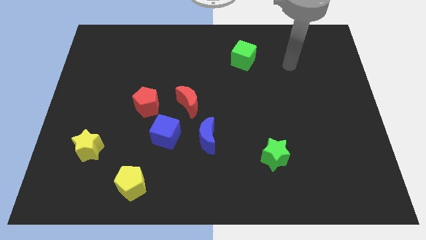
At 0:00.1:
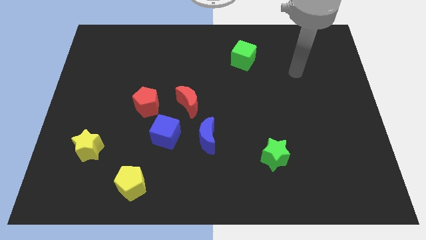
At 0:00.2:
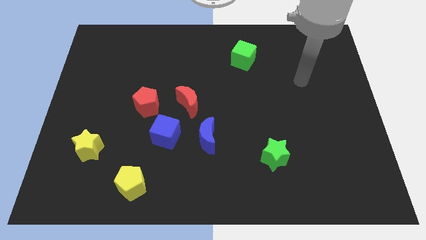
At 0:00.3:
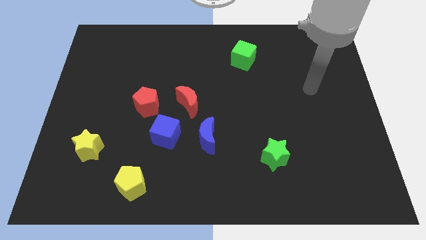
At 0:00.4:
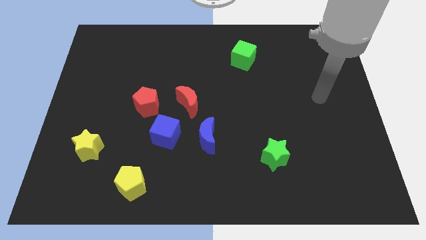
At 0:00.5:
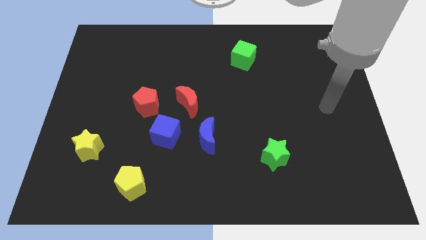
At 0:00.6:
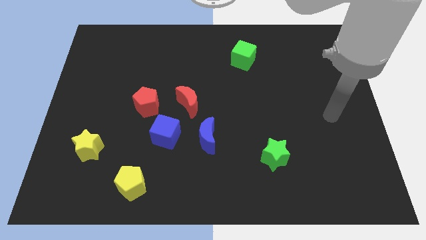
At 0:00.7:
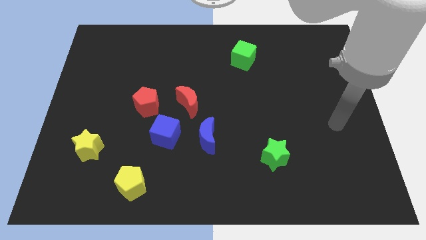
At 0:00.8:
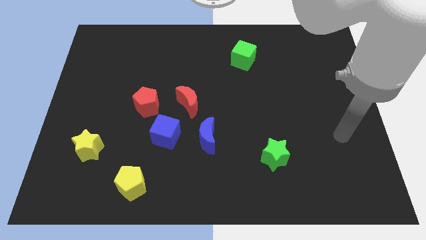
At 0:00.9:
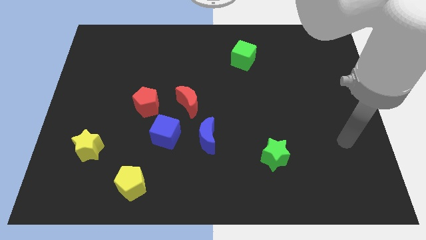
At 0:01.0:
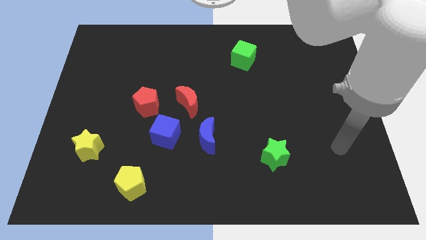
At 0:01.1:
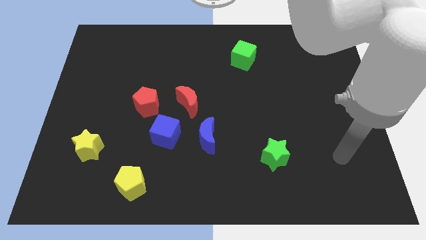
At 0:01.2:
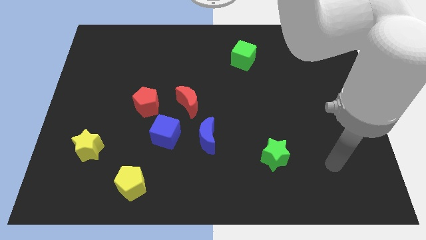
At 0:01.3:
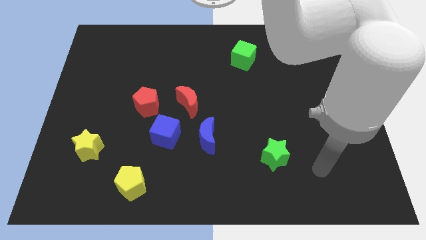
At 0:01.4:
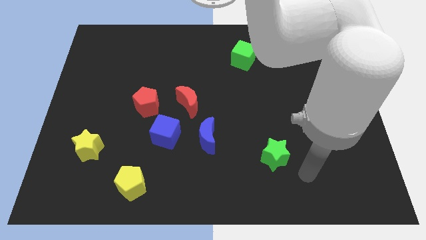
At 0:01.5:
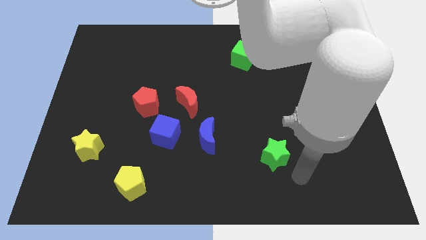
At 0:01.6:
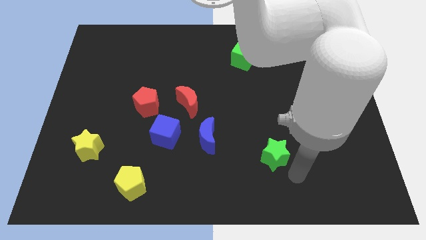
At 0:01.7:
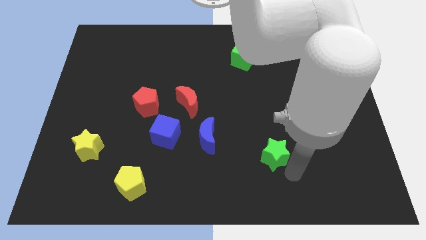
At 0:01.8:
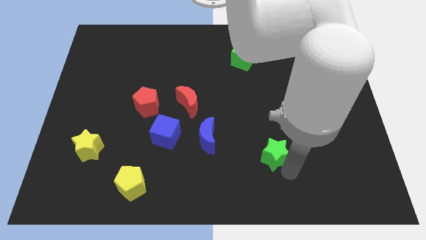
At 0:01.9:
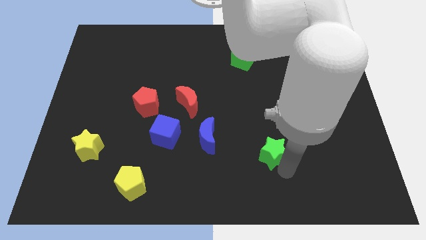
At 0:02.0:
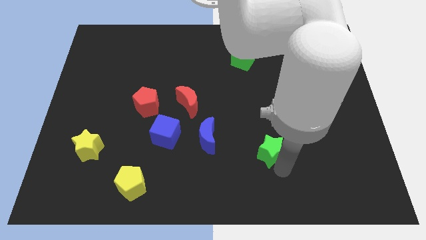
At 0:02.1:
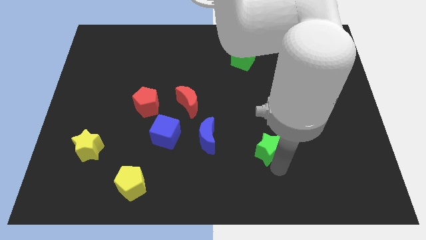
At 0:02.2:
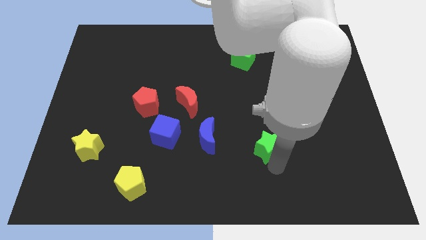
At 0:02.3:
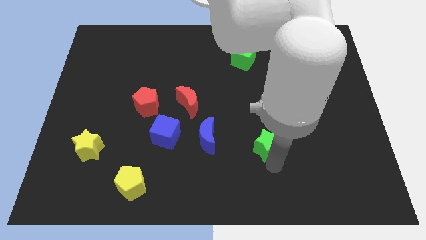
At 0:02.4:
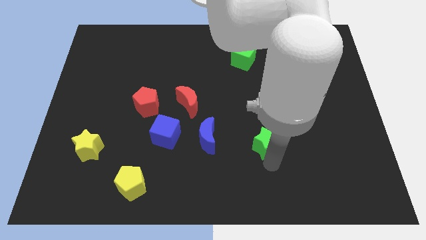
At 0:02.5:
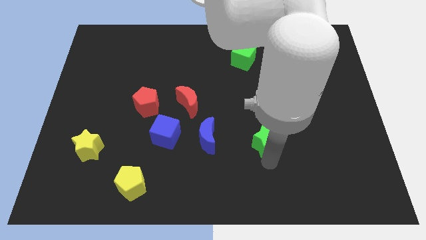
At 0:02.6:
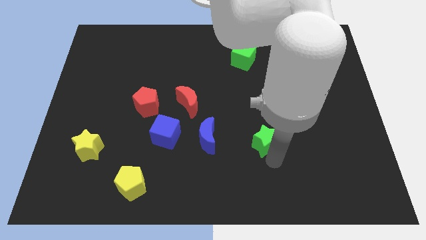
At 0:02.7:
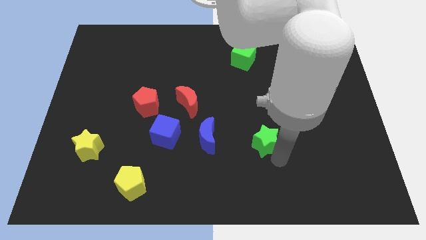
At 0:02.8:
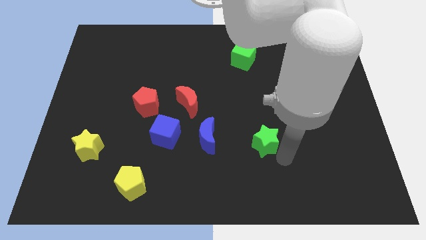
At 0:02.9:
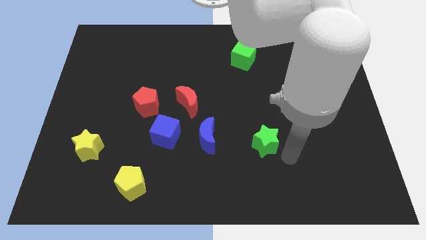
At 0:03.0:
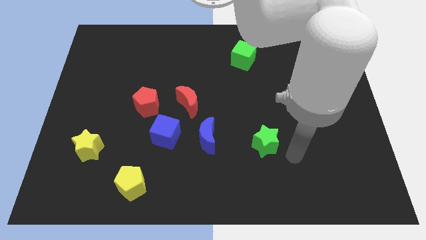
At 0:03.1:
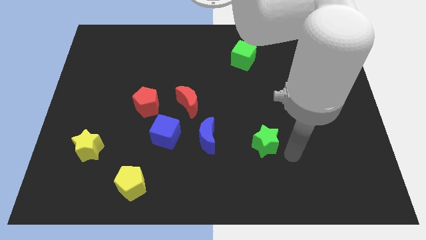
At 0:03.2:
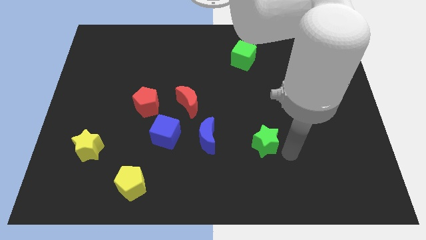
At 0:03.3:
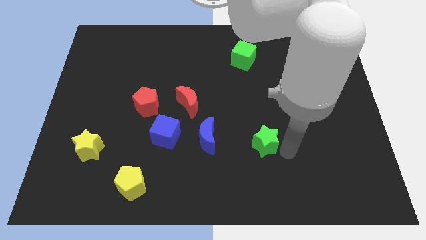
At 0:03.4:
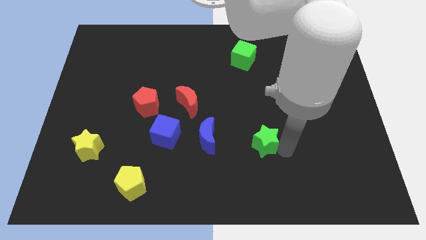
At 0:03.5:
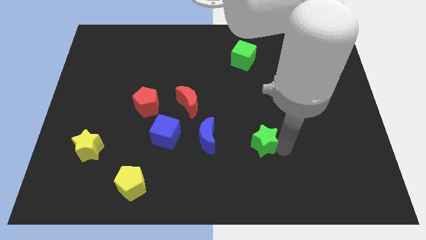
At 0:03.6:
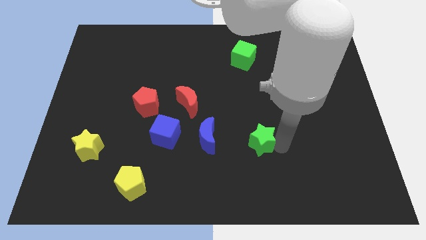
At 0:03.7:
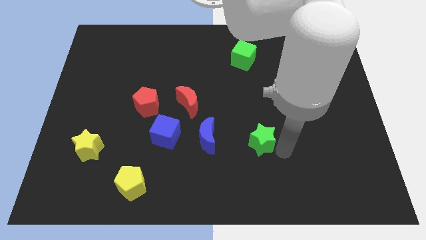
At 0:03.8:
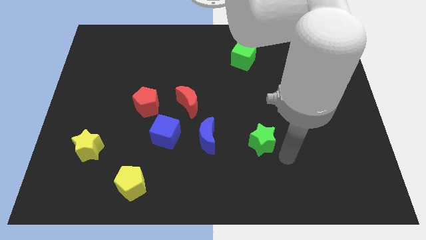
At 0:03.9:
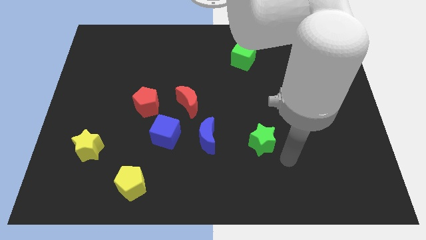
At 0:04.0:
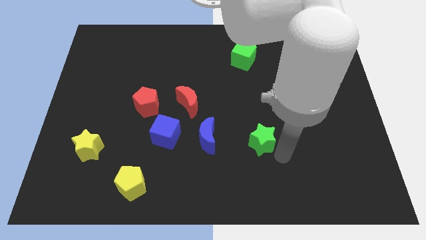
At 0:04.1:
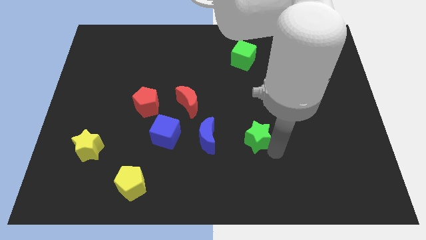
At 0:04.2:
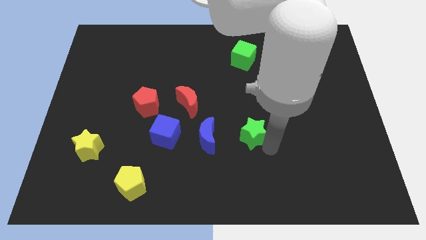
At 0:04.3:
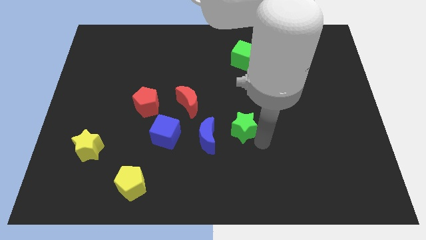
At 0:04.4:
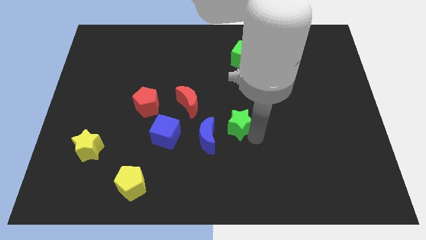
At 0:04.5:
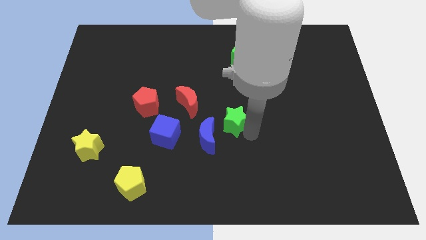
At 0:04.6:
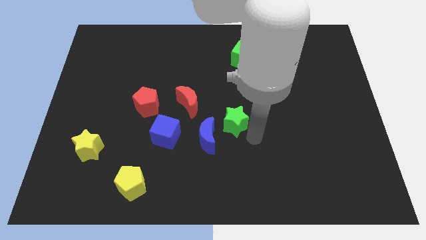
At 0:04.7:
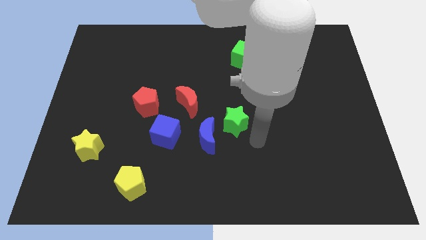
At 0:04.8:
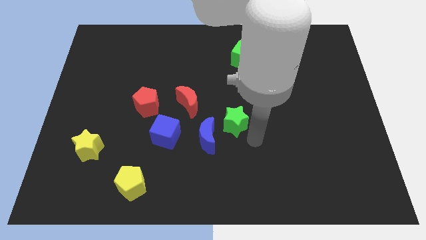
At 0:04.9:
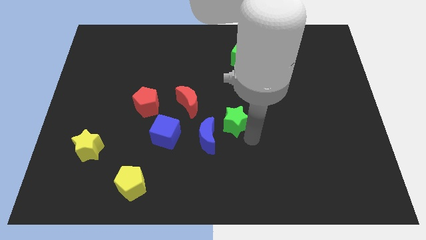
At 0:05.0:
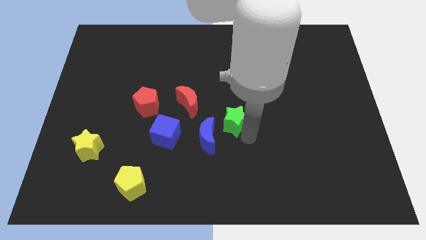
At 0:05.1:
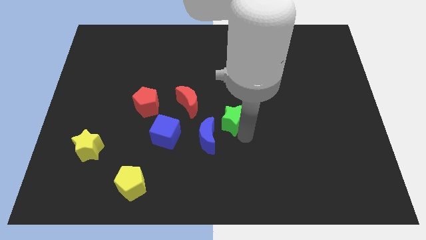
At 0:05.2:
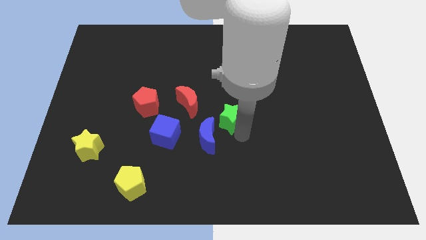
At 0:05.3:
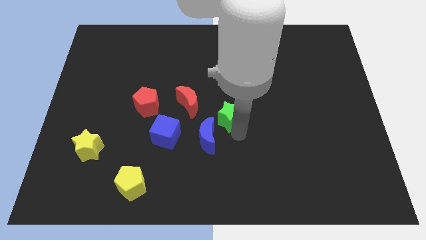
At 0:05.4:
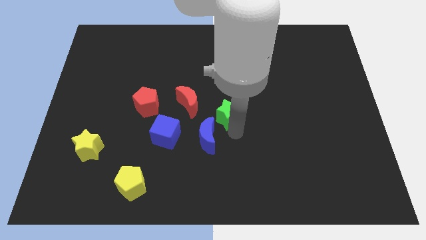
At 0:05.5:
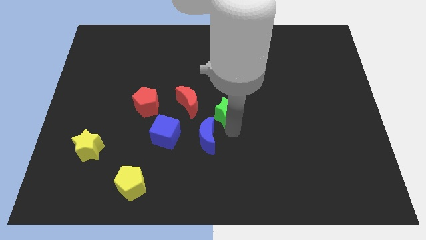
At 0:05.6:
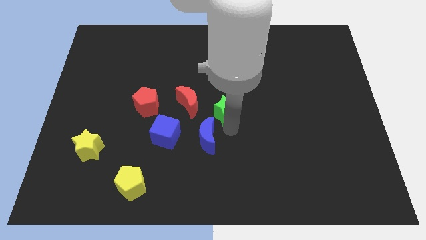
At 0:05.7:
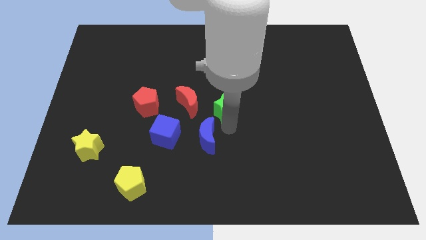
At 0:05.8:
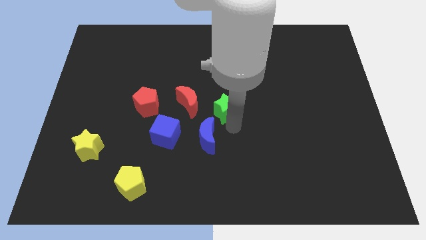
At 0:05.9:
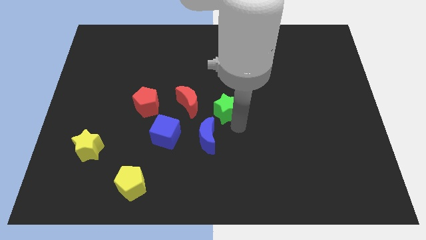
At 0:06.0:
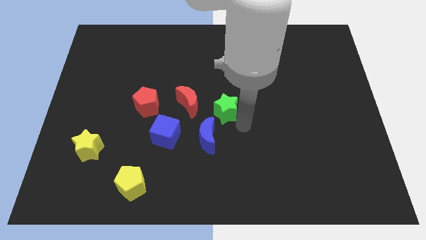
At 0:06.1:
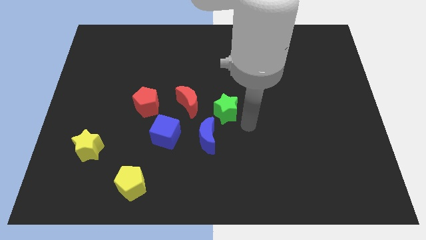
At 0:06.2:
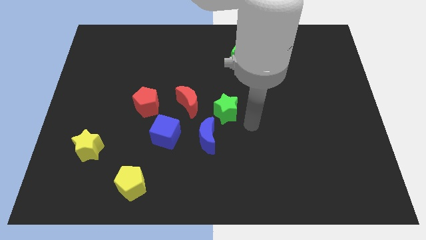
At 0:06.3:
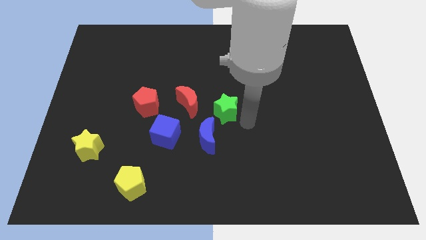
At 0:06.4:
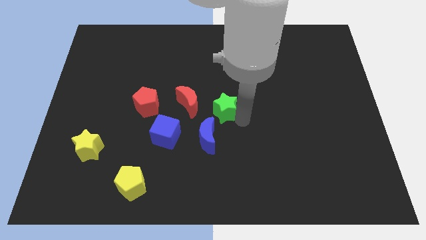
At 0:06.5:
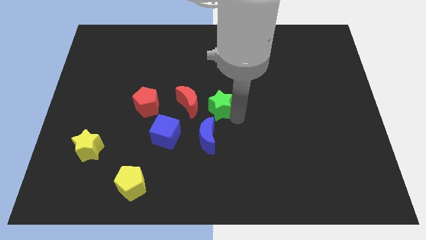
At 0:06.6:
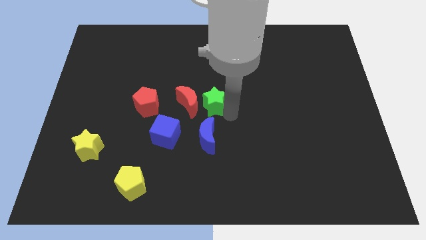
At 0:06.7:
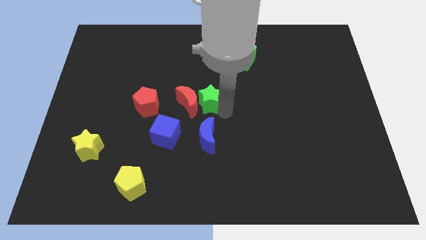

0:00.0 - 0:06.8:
move the green star diagonally upwards and left

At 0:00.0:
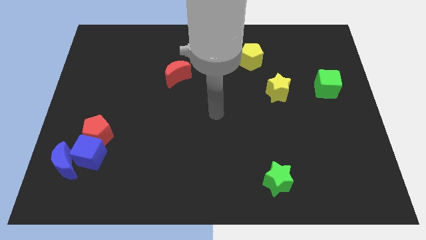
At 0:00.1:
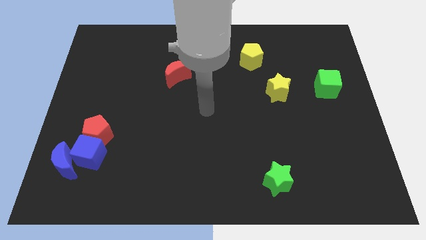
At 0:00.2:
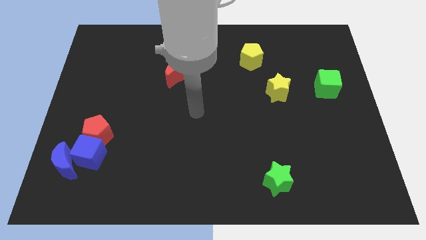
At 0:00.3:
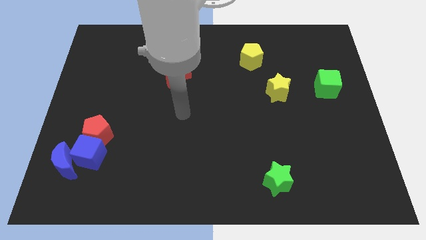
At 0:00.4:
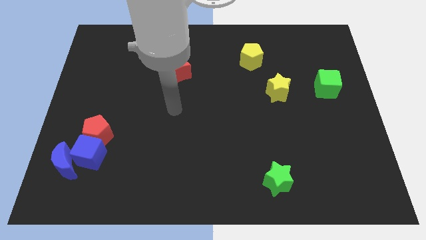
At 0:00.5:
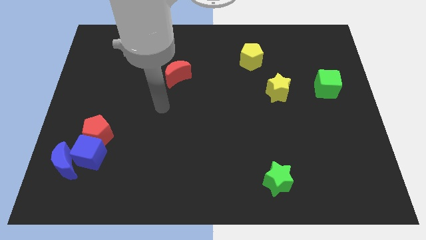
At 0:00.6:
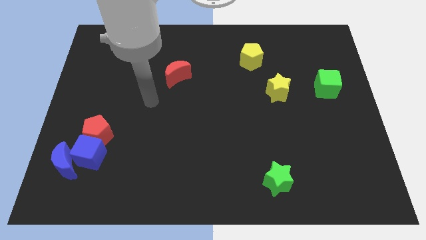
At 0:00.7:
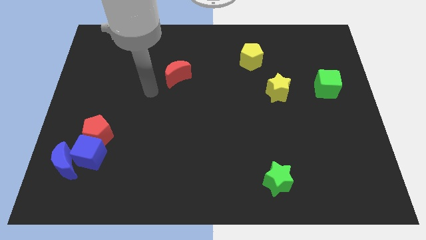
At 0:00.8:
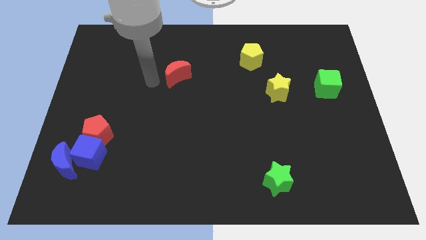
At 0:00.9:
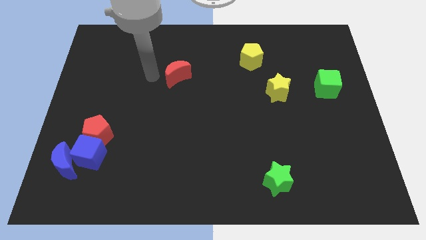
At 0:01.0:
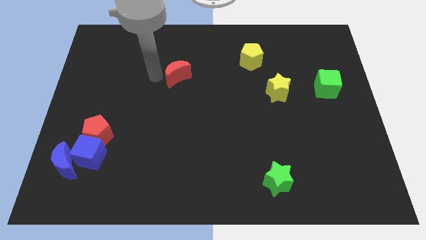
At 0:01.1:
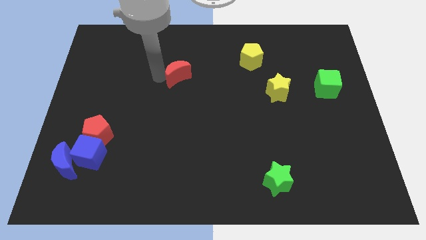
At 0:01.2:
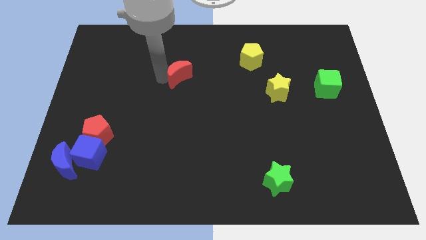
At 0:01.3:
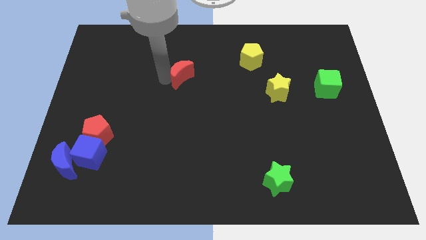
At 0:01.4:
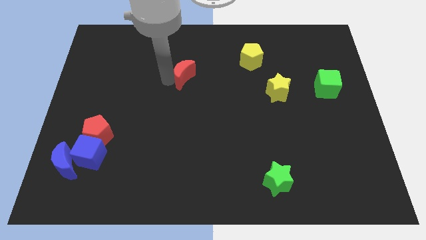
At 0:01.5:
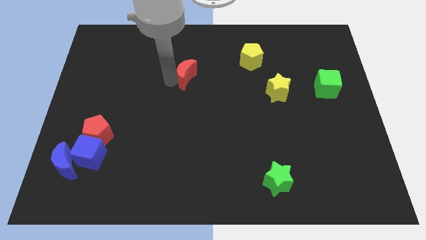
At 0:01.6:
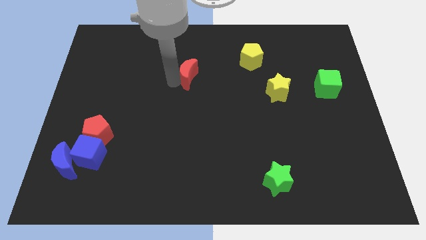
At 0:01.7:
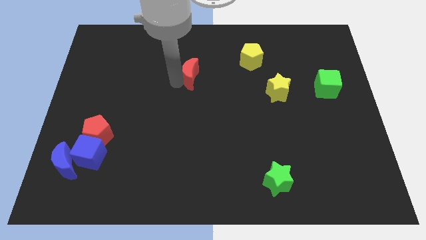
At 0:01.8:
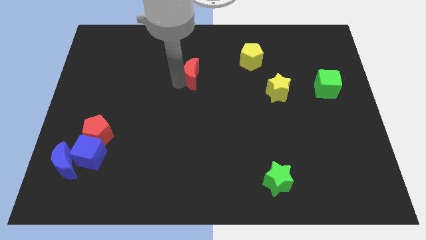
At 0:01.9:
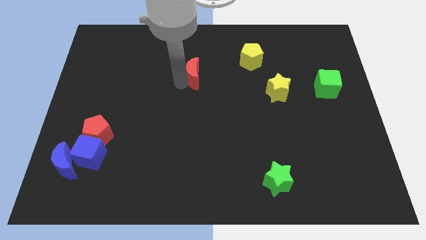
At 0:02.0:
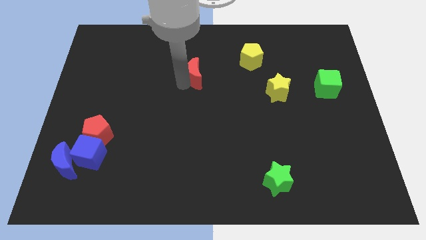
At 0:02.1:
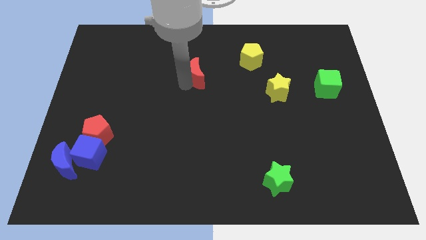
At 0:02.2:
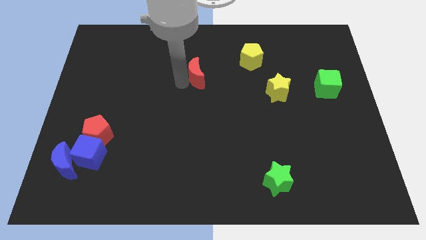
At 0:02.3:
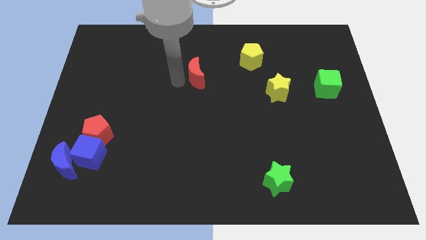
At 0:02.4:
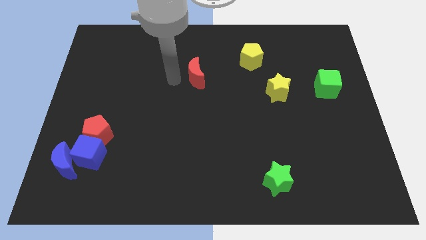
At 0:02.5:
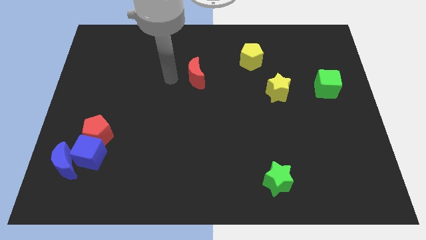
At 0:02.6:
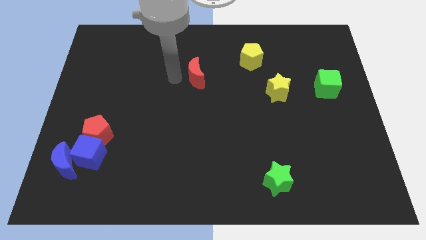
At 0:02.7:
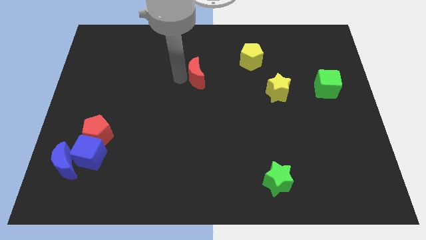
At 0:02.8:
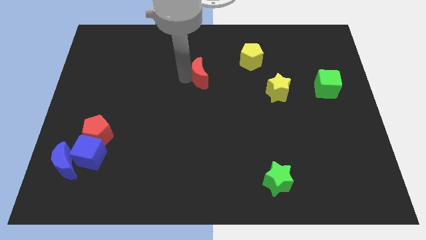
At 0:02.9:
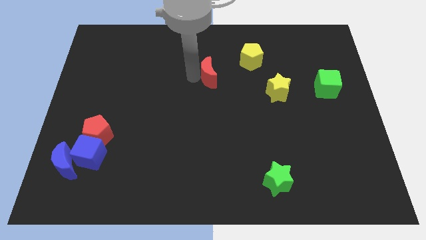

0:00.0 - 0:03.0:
move the red moon a little to the right
